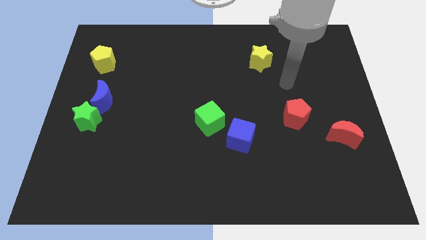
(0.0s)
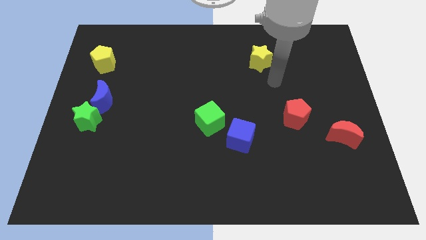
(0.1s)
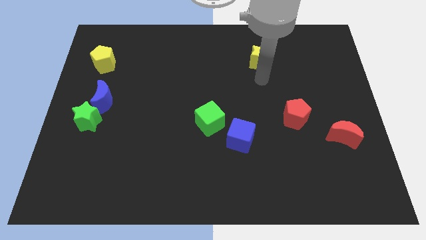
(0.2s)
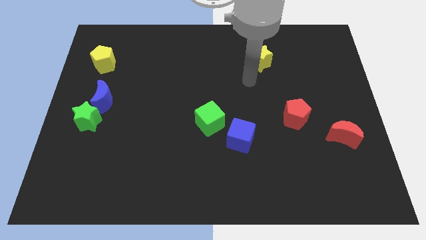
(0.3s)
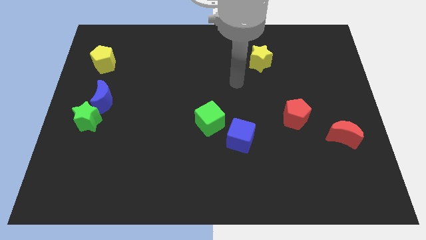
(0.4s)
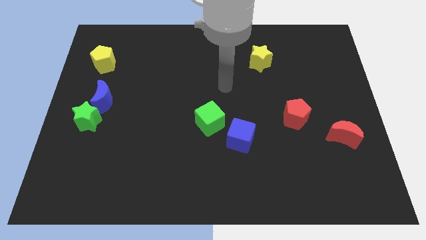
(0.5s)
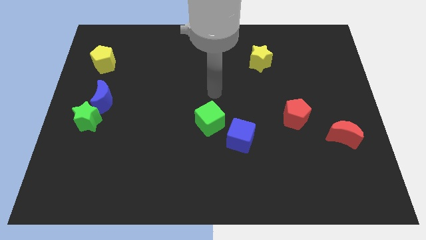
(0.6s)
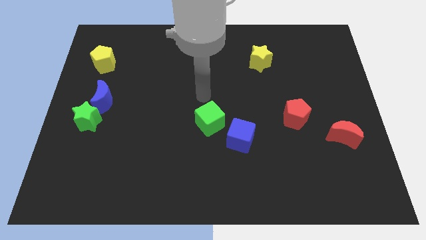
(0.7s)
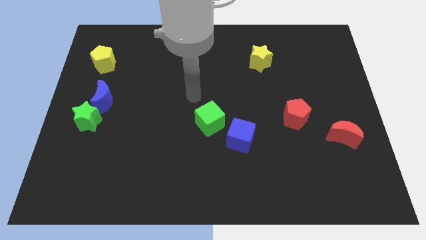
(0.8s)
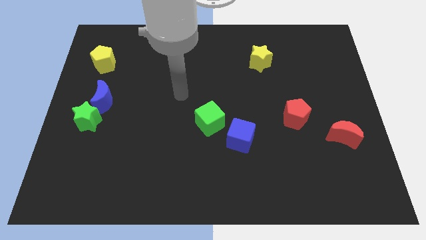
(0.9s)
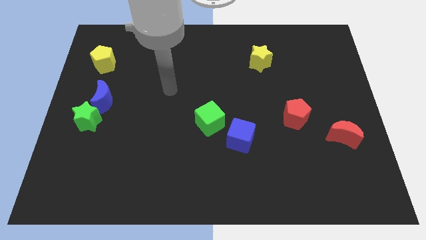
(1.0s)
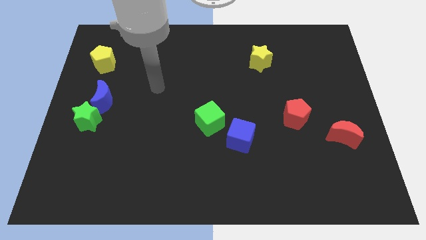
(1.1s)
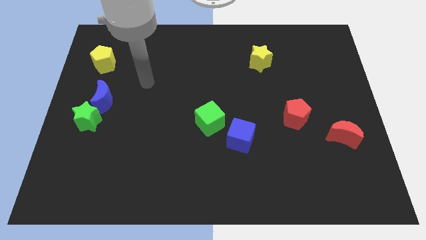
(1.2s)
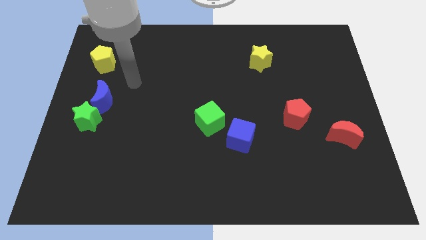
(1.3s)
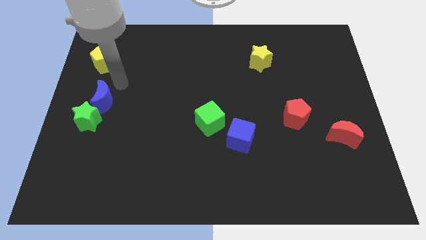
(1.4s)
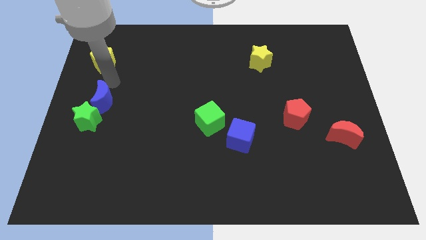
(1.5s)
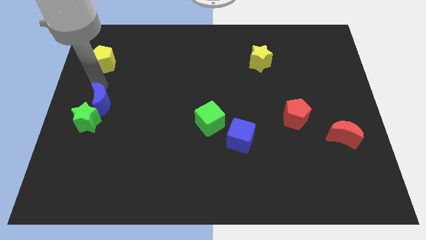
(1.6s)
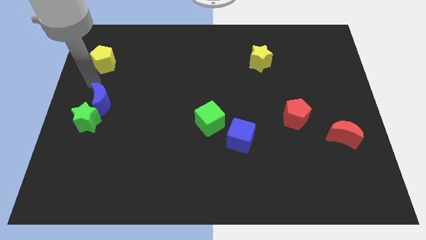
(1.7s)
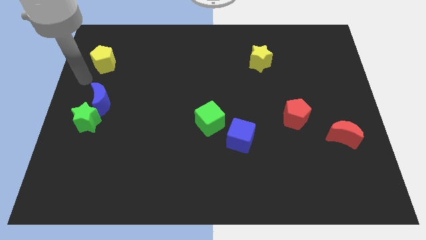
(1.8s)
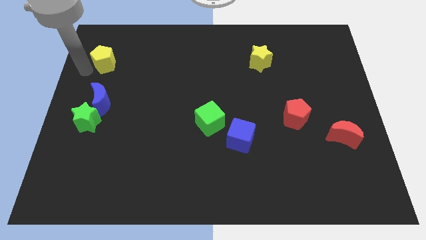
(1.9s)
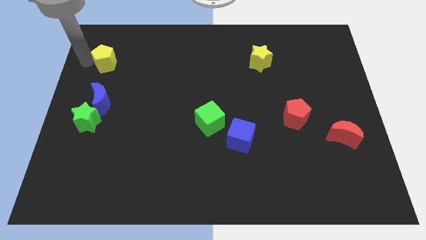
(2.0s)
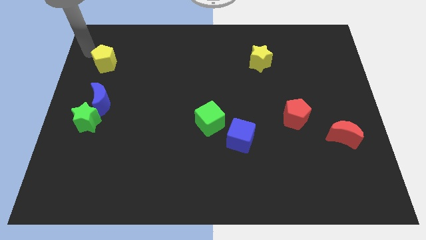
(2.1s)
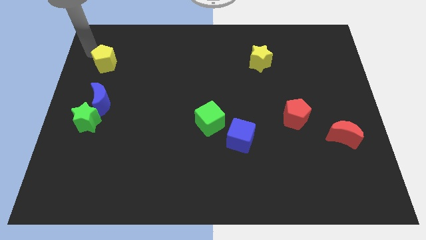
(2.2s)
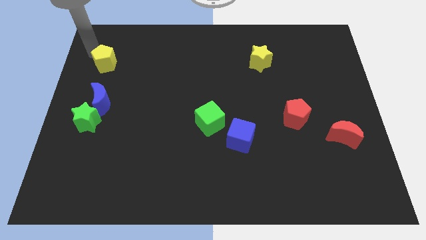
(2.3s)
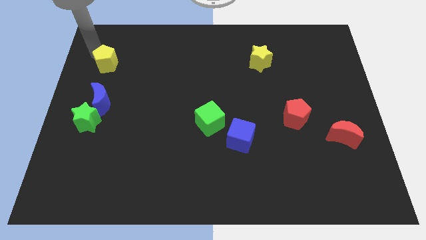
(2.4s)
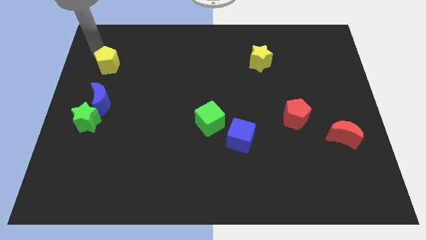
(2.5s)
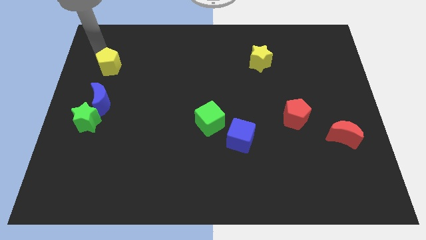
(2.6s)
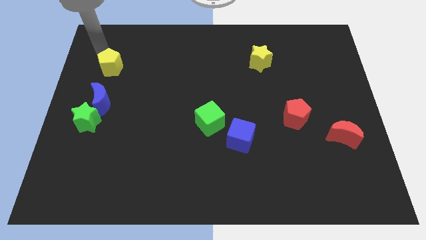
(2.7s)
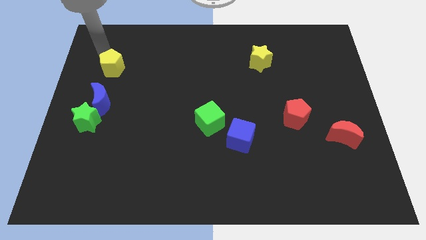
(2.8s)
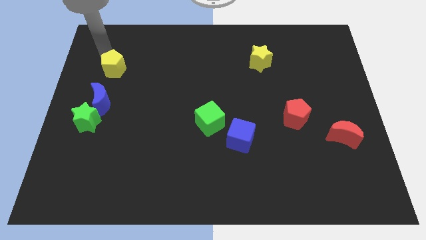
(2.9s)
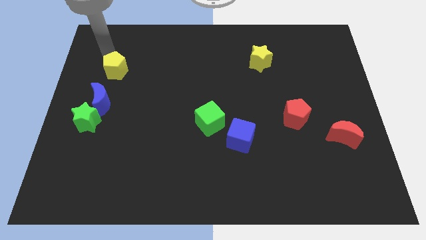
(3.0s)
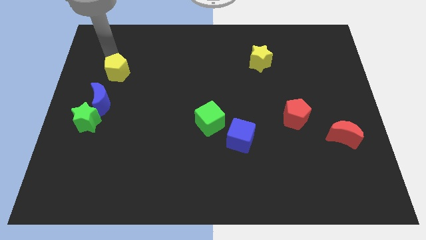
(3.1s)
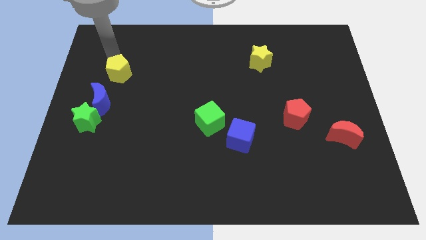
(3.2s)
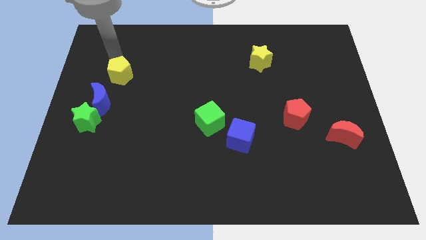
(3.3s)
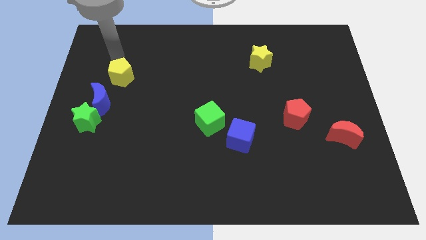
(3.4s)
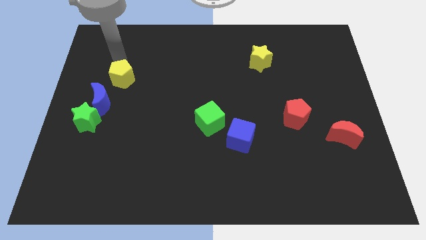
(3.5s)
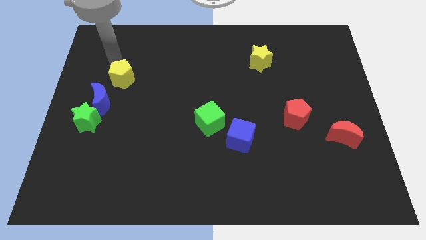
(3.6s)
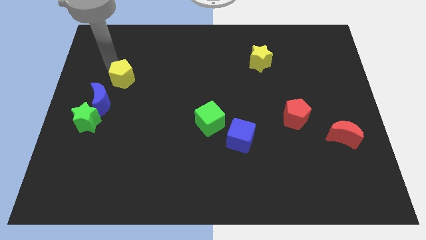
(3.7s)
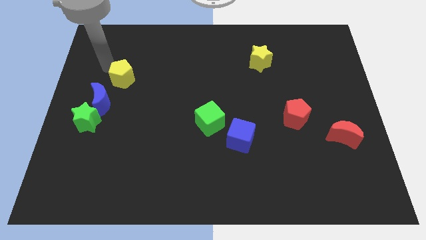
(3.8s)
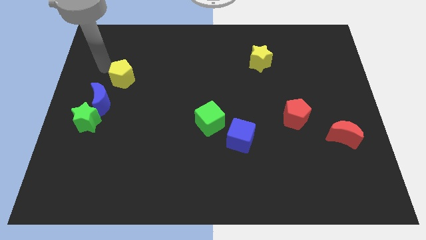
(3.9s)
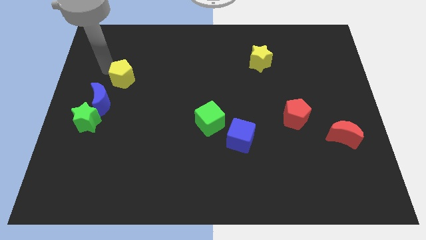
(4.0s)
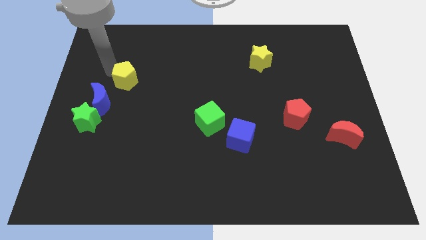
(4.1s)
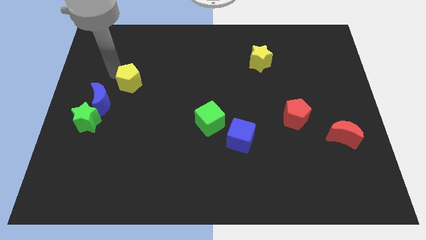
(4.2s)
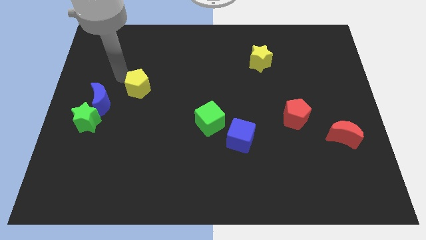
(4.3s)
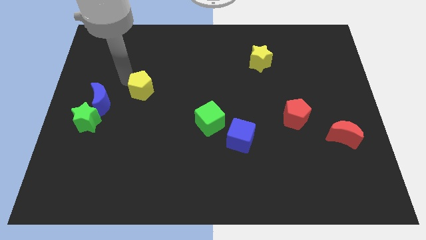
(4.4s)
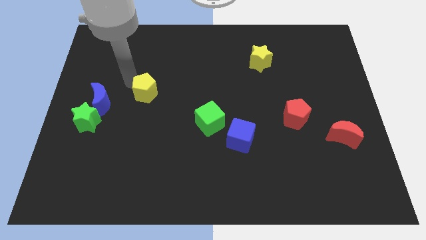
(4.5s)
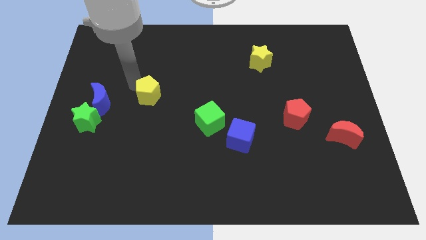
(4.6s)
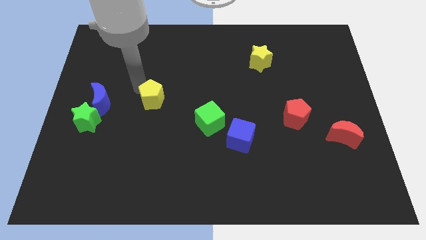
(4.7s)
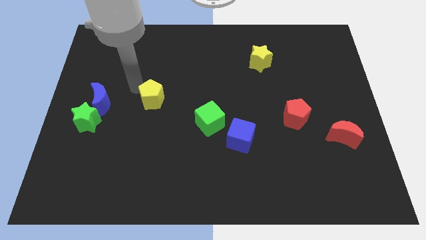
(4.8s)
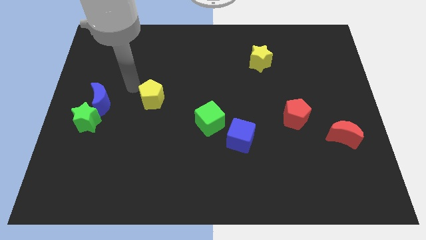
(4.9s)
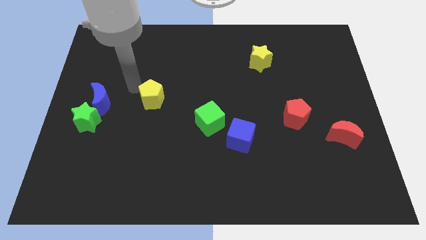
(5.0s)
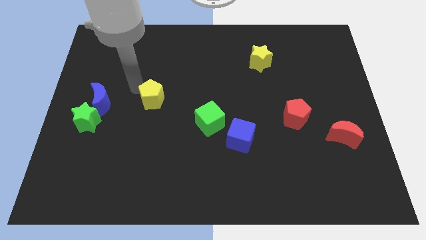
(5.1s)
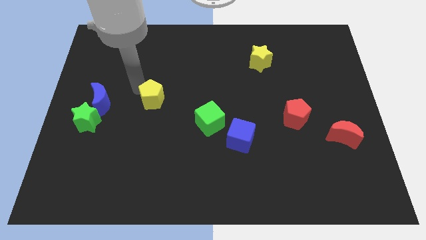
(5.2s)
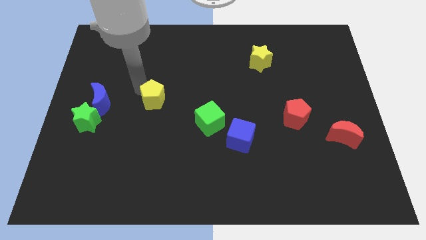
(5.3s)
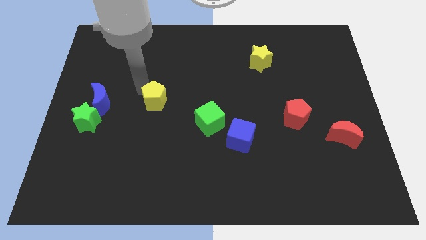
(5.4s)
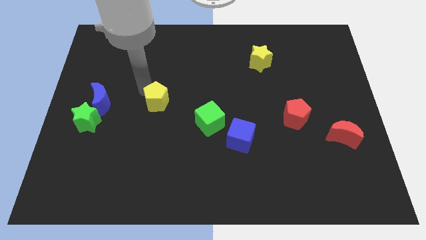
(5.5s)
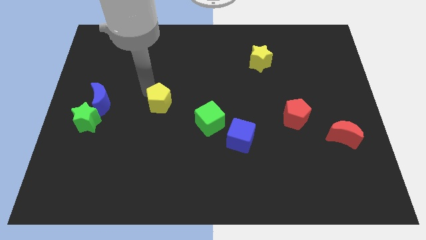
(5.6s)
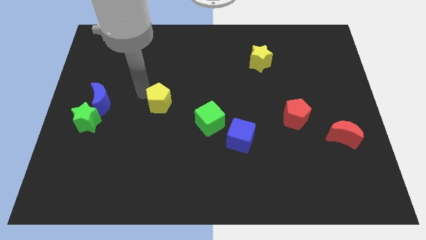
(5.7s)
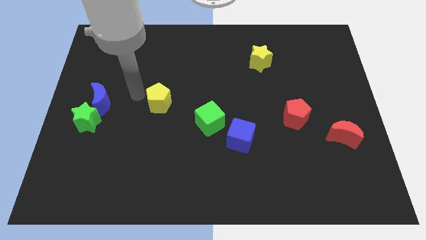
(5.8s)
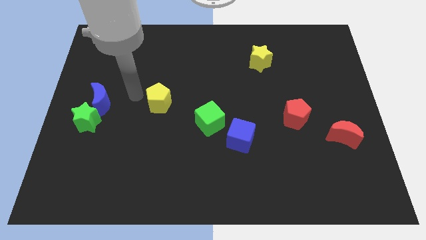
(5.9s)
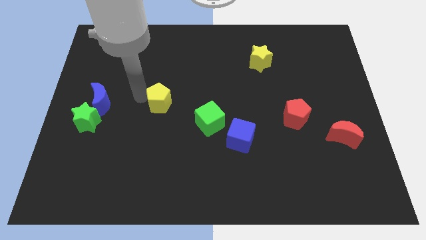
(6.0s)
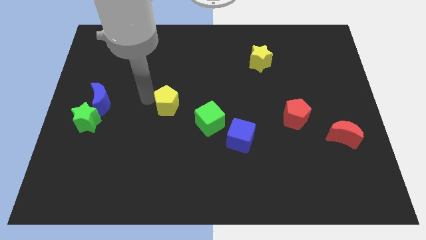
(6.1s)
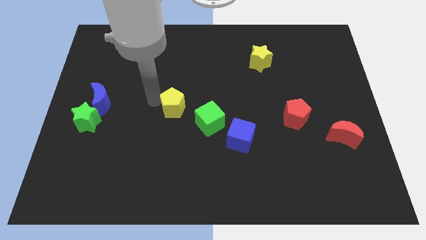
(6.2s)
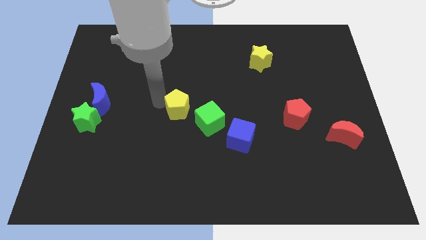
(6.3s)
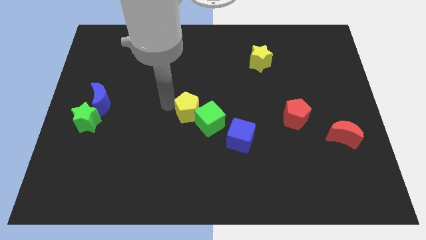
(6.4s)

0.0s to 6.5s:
push the yellow pentagon to the green cube

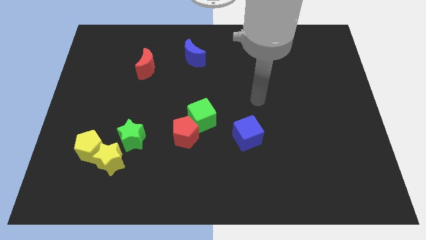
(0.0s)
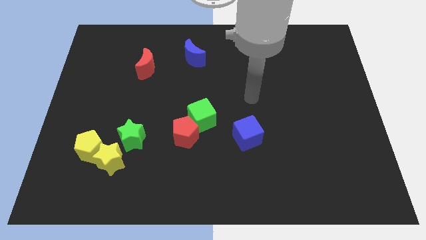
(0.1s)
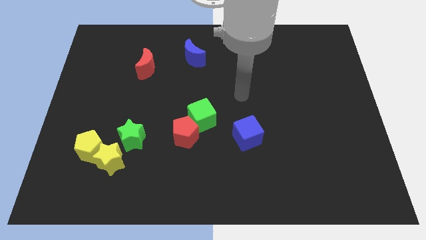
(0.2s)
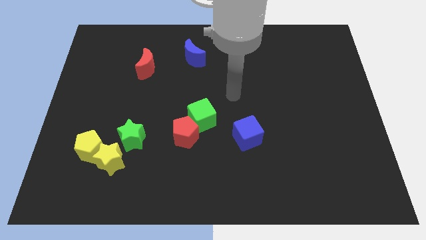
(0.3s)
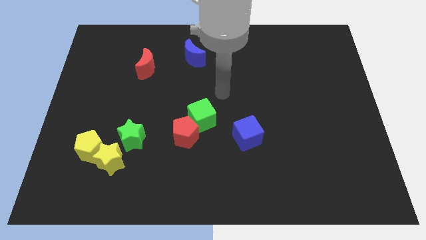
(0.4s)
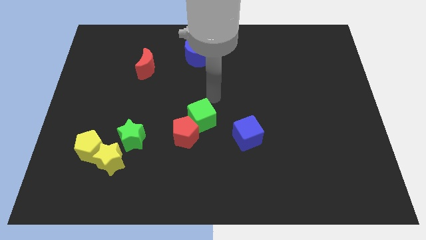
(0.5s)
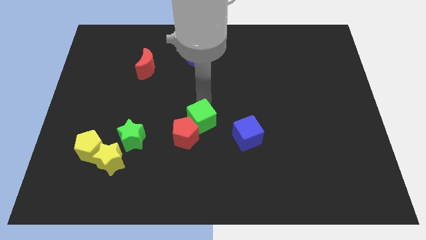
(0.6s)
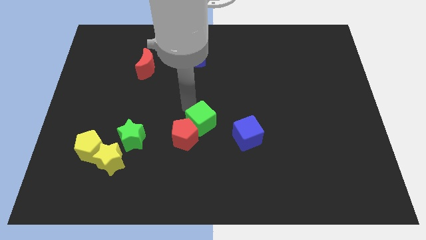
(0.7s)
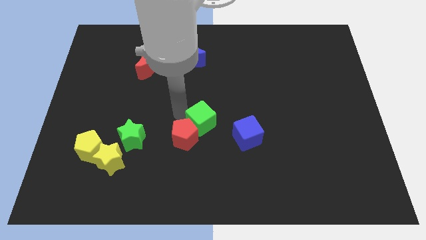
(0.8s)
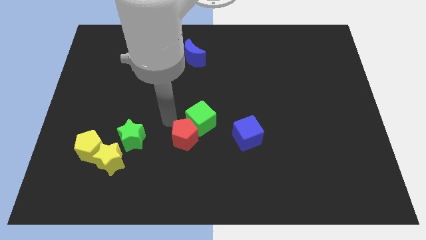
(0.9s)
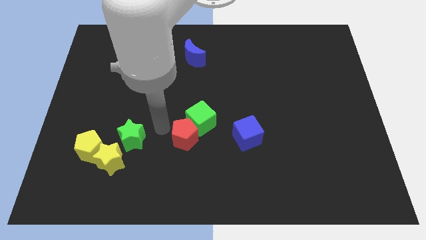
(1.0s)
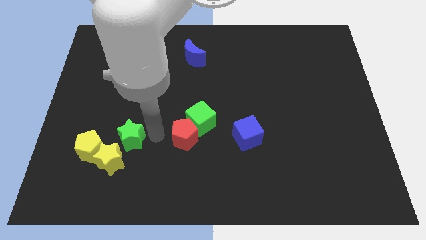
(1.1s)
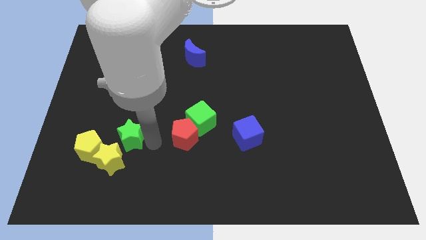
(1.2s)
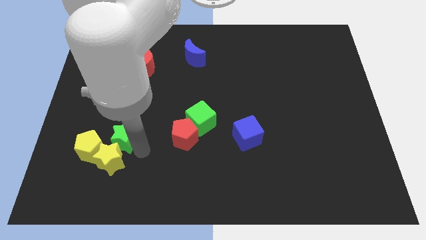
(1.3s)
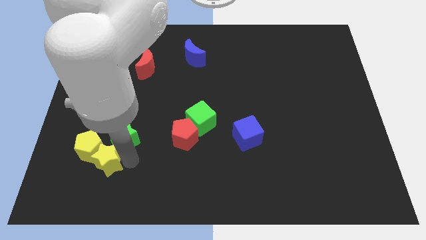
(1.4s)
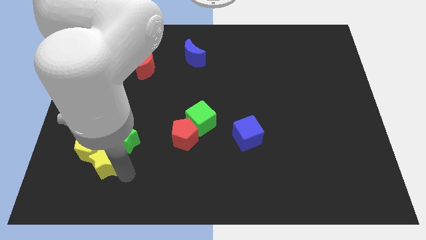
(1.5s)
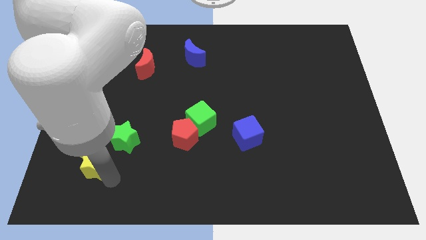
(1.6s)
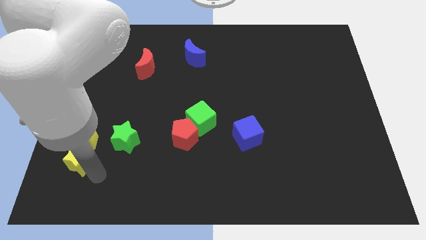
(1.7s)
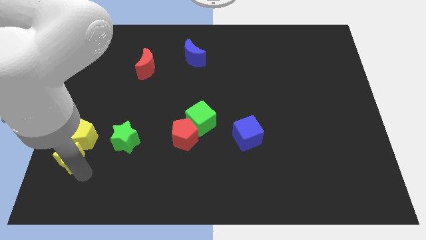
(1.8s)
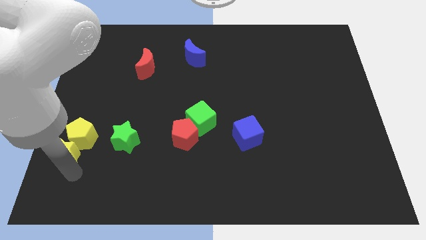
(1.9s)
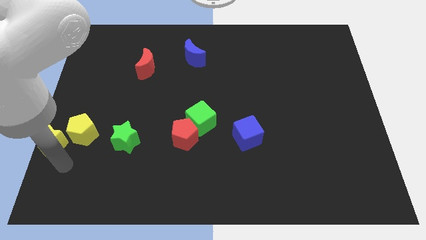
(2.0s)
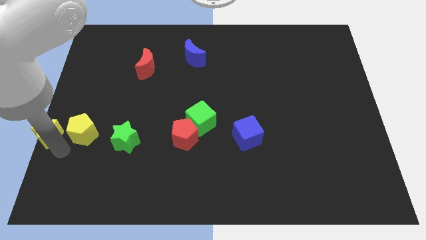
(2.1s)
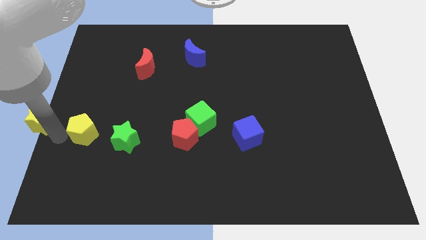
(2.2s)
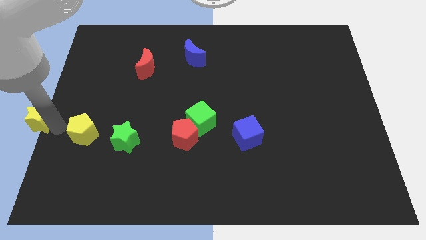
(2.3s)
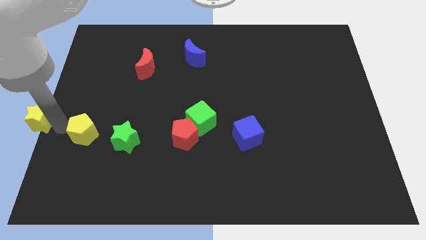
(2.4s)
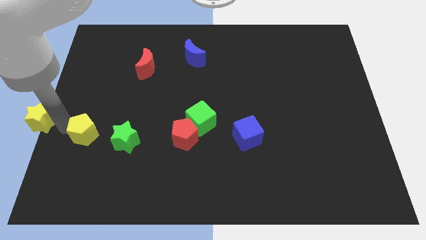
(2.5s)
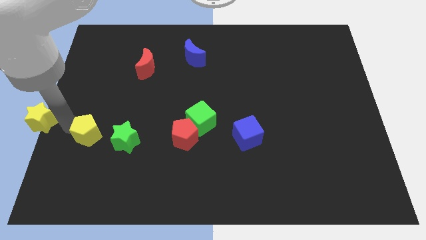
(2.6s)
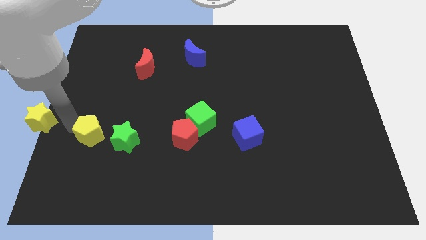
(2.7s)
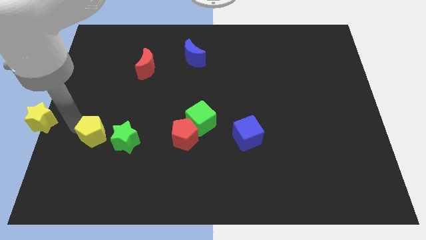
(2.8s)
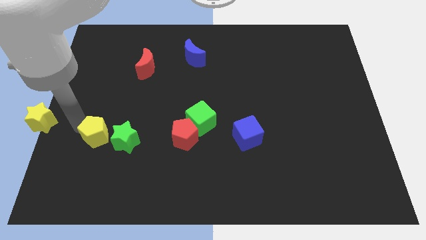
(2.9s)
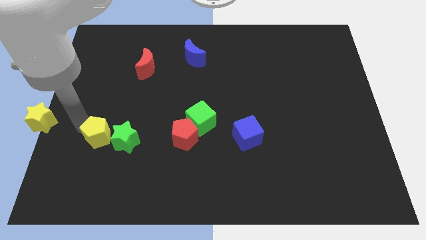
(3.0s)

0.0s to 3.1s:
move the yellow pentagon to the green star
